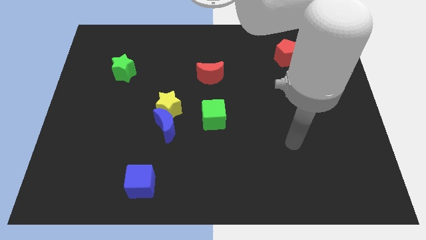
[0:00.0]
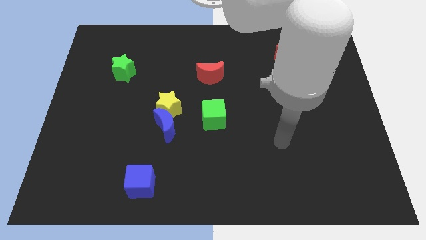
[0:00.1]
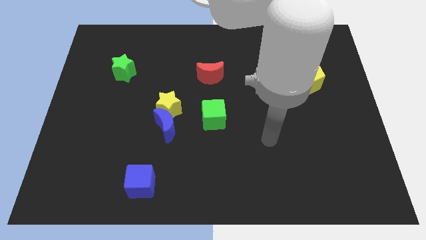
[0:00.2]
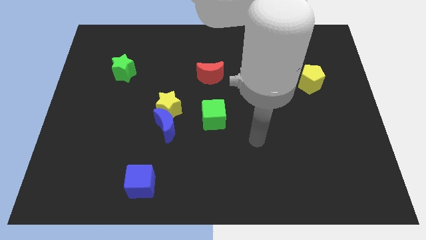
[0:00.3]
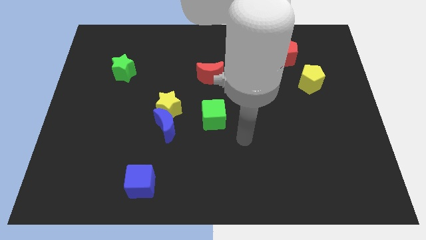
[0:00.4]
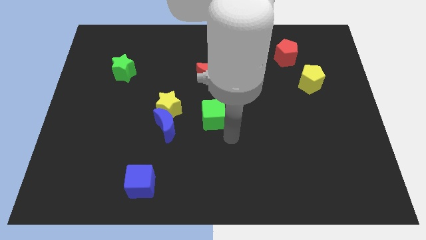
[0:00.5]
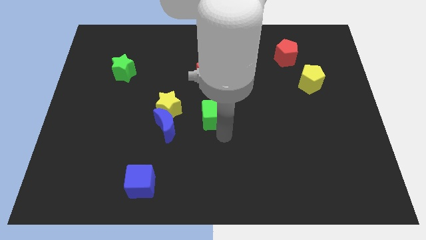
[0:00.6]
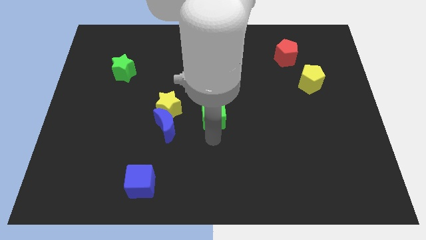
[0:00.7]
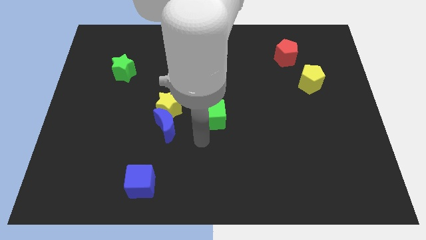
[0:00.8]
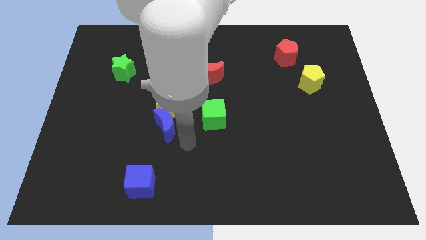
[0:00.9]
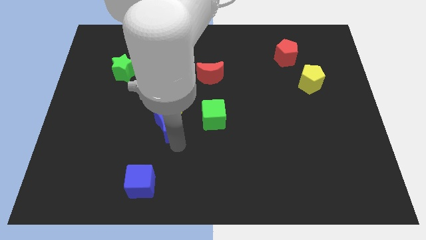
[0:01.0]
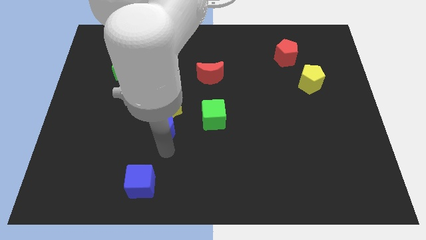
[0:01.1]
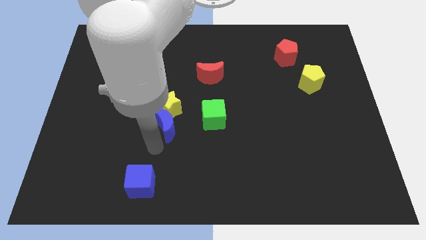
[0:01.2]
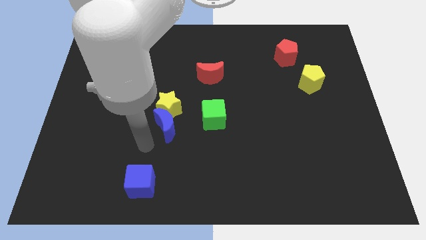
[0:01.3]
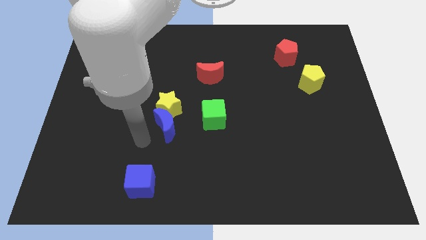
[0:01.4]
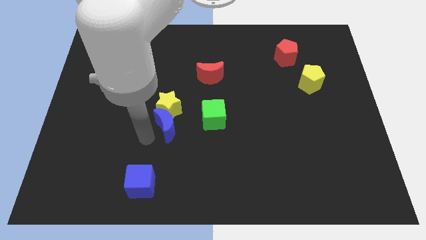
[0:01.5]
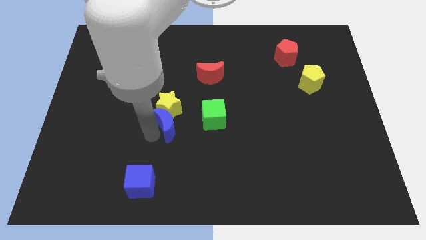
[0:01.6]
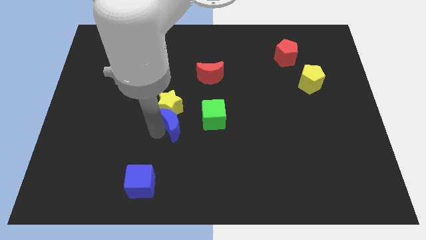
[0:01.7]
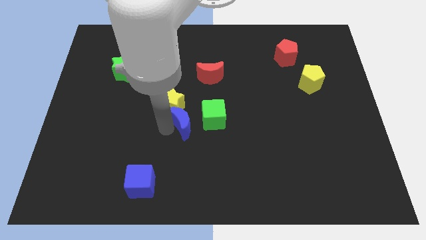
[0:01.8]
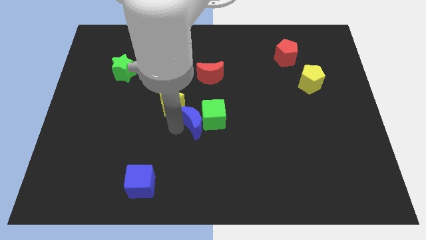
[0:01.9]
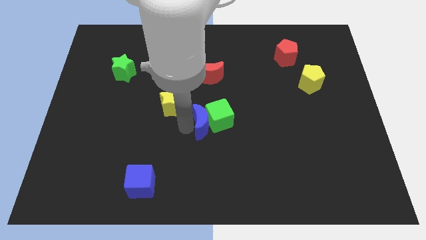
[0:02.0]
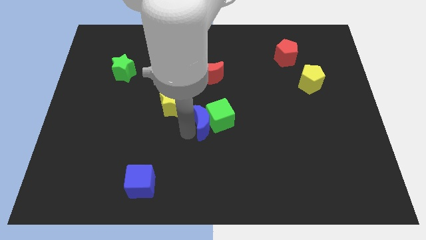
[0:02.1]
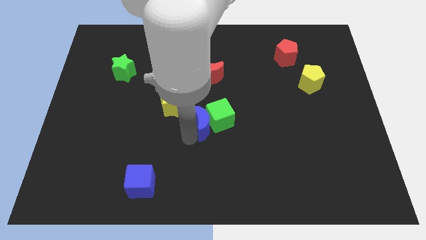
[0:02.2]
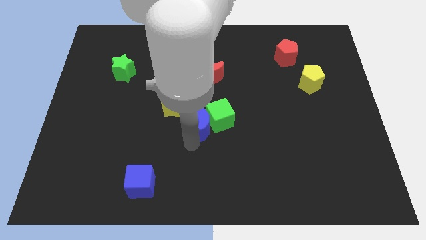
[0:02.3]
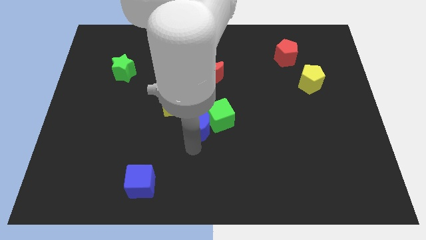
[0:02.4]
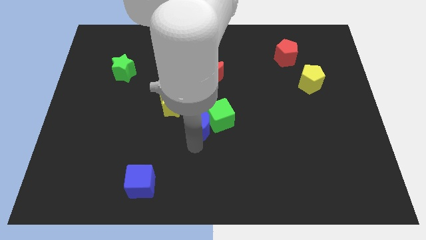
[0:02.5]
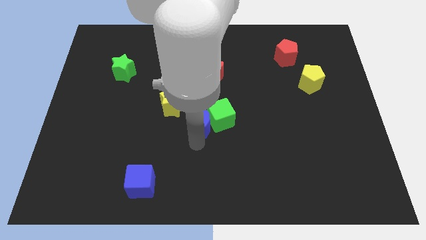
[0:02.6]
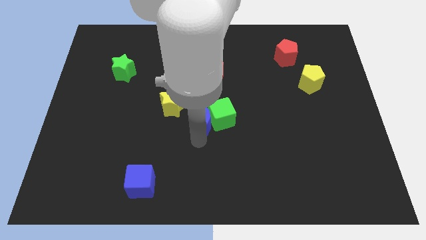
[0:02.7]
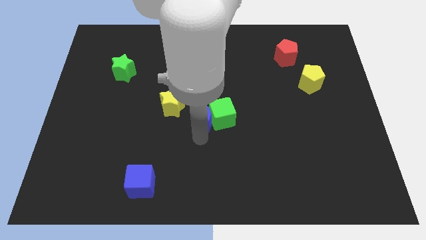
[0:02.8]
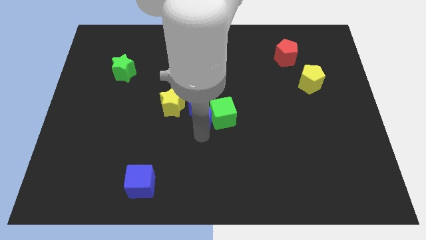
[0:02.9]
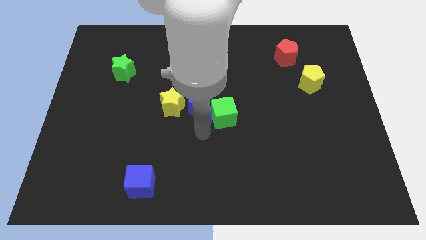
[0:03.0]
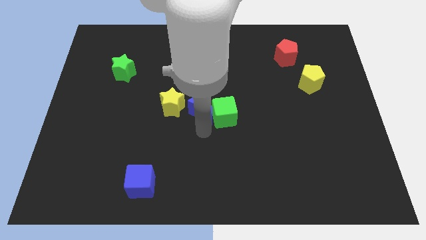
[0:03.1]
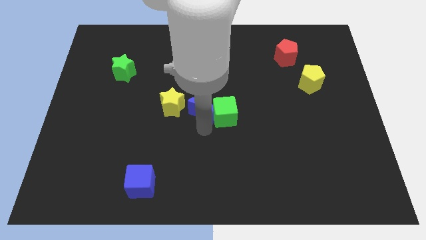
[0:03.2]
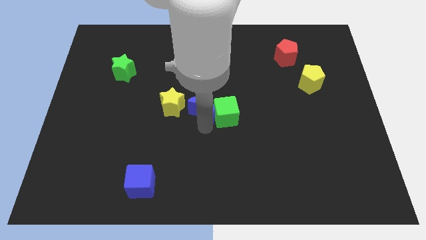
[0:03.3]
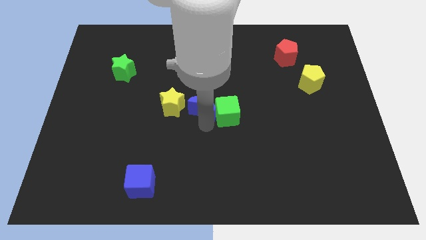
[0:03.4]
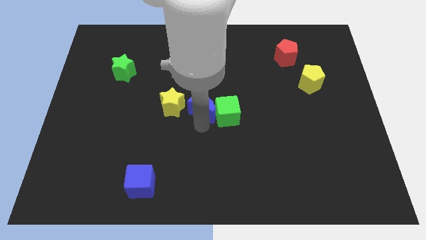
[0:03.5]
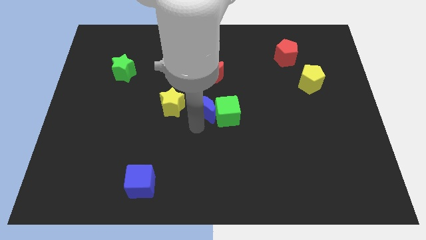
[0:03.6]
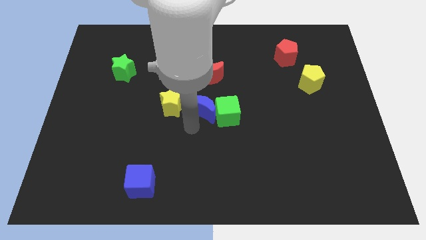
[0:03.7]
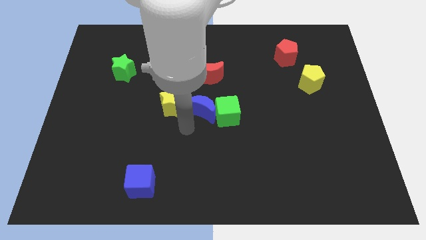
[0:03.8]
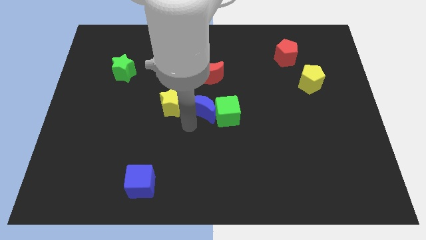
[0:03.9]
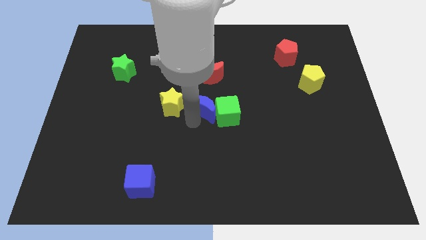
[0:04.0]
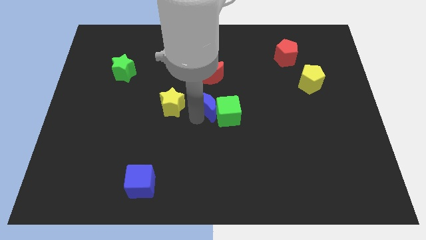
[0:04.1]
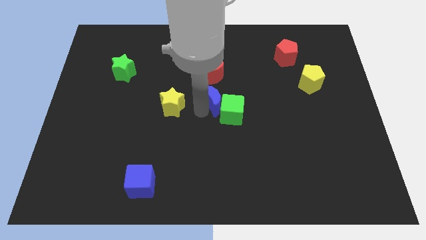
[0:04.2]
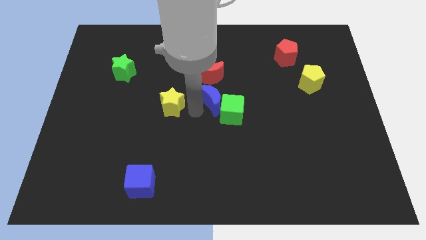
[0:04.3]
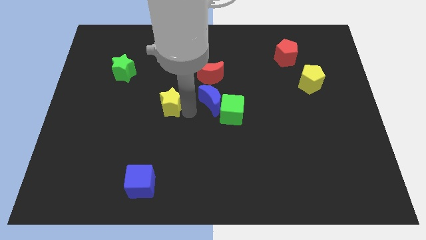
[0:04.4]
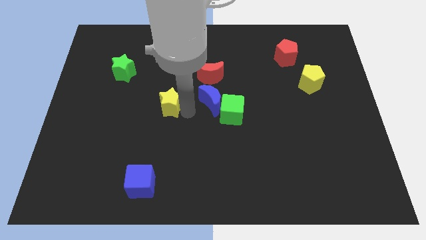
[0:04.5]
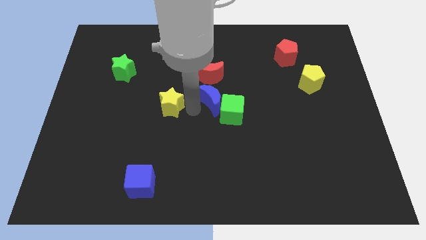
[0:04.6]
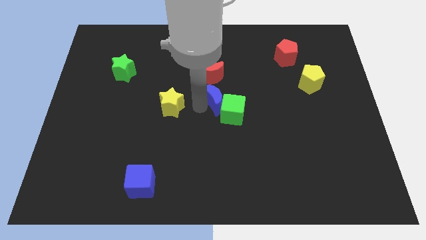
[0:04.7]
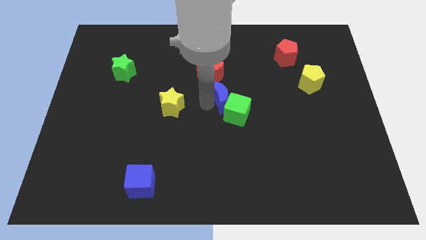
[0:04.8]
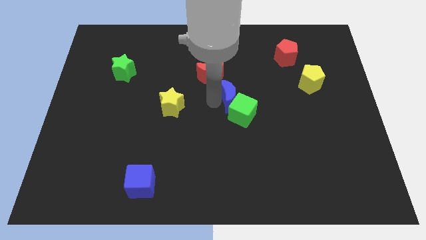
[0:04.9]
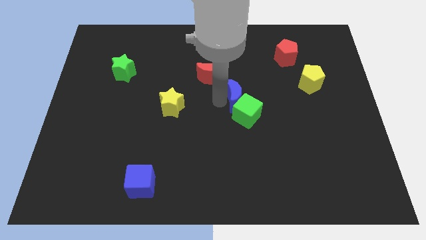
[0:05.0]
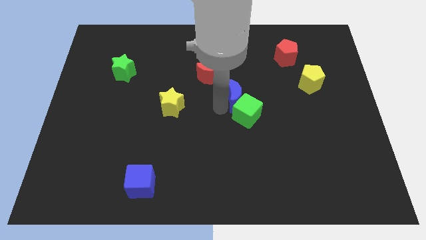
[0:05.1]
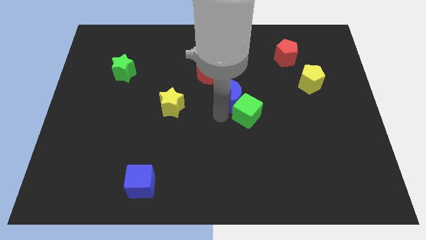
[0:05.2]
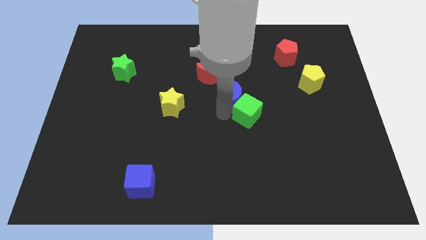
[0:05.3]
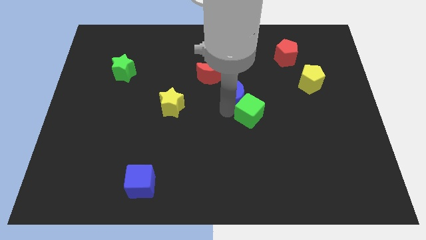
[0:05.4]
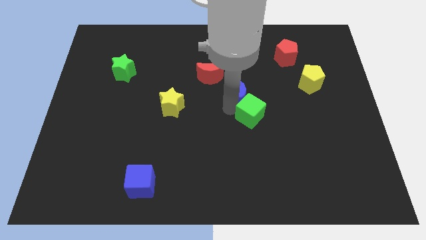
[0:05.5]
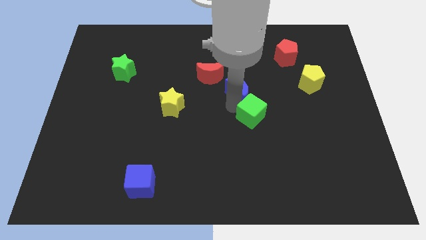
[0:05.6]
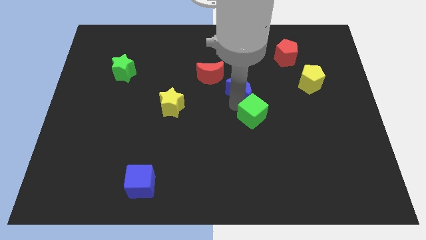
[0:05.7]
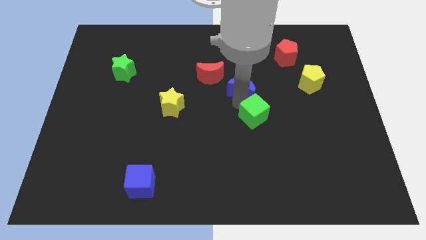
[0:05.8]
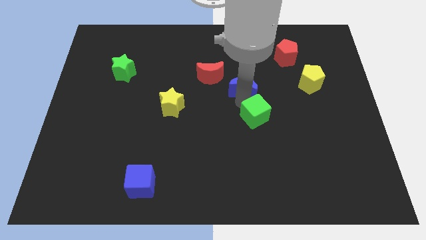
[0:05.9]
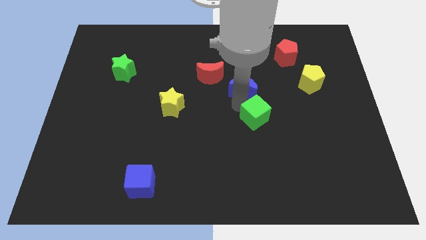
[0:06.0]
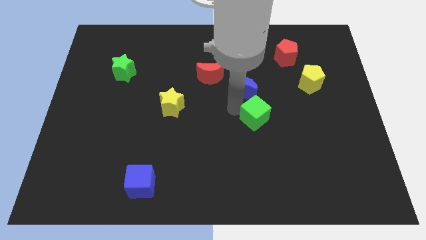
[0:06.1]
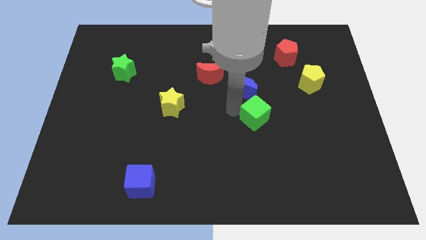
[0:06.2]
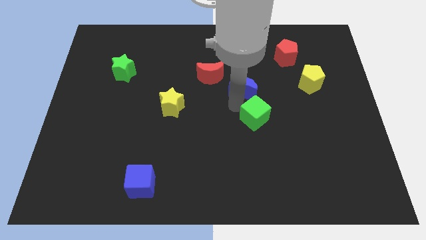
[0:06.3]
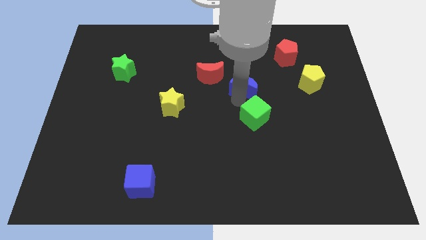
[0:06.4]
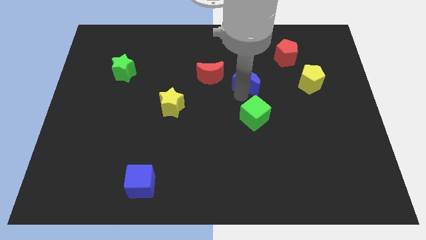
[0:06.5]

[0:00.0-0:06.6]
slide the blue moon upwards and then to the right

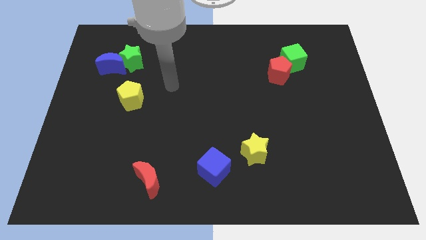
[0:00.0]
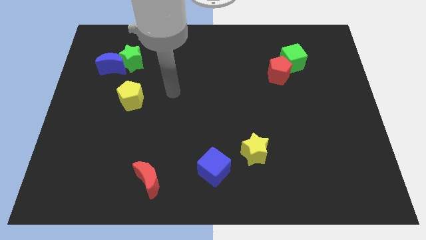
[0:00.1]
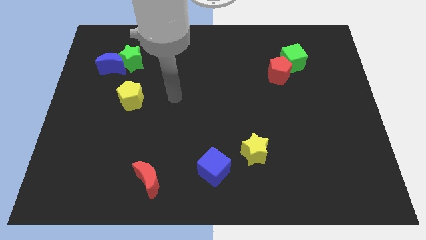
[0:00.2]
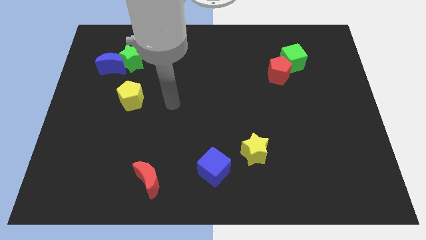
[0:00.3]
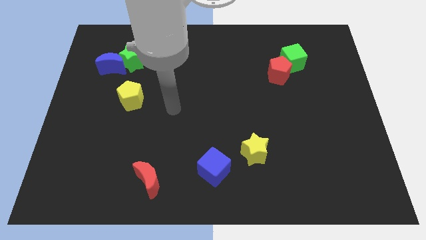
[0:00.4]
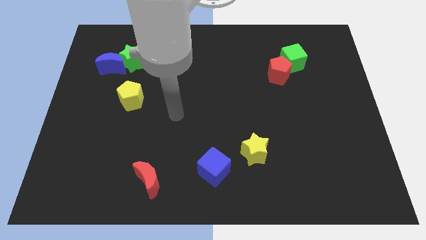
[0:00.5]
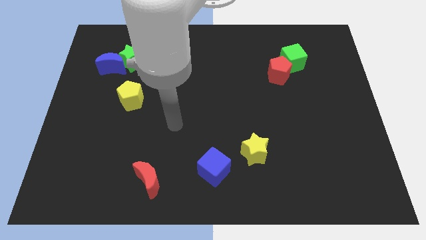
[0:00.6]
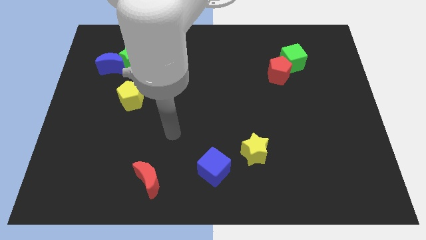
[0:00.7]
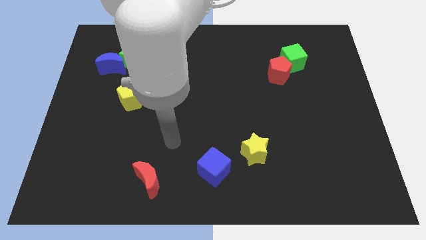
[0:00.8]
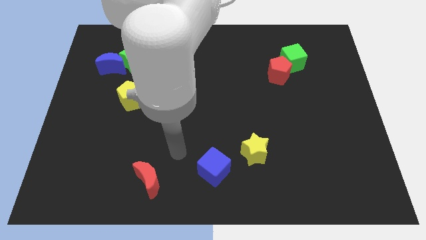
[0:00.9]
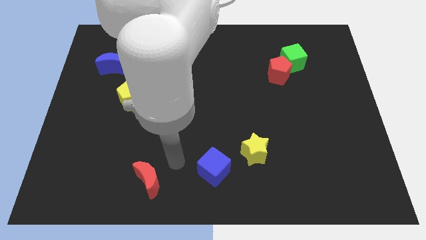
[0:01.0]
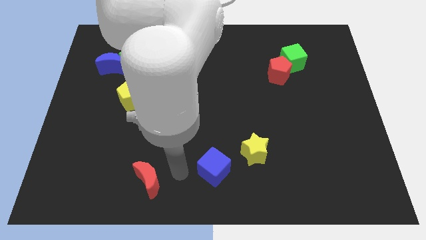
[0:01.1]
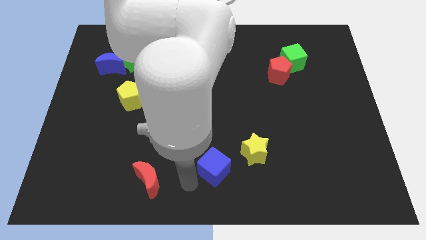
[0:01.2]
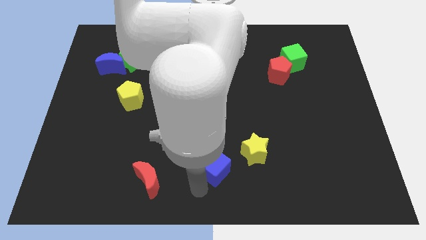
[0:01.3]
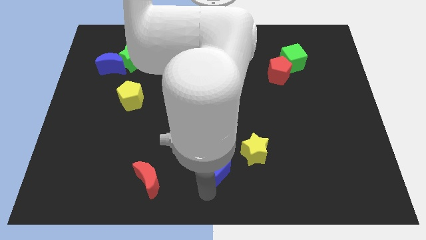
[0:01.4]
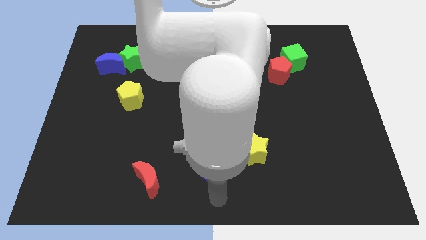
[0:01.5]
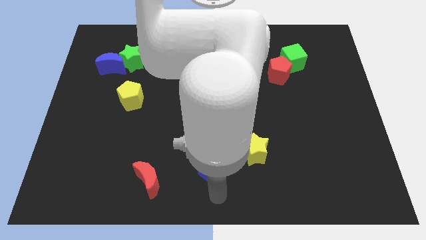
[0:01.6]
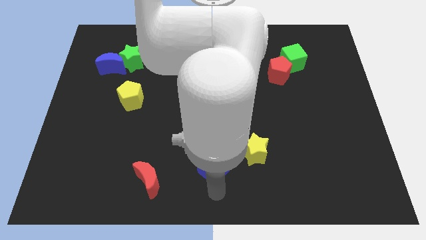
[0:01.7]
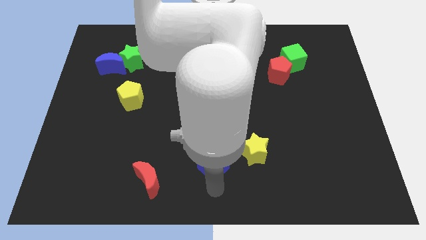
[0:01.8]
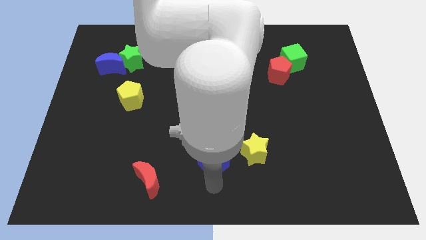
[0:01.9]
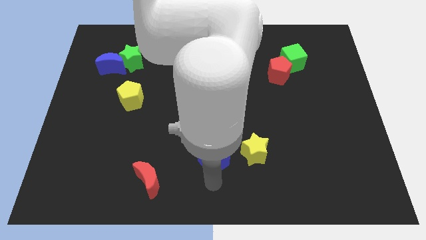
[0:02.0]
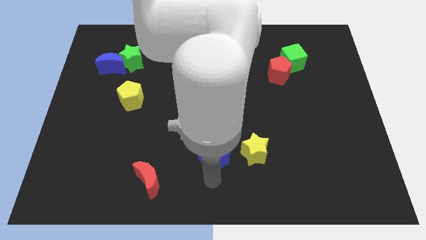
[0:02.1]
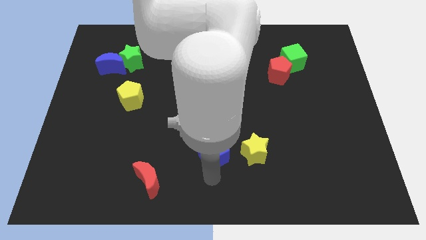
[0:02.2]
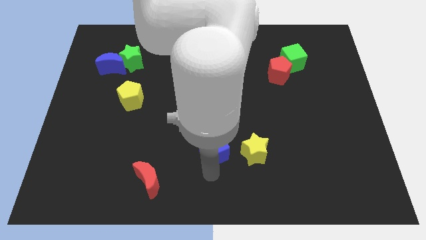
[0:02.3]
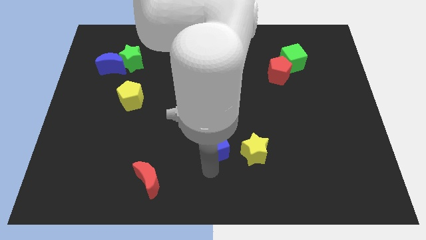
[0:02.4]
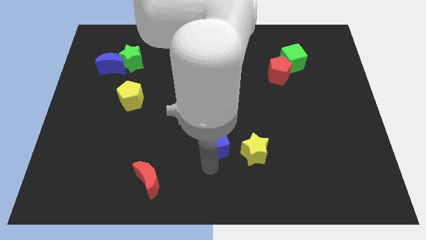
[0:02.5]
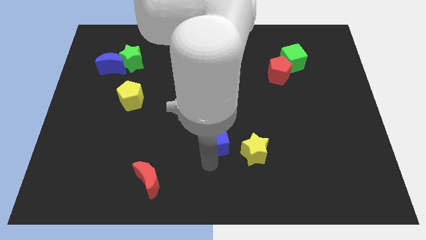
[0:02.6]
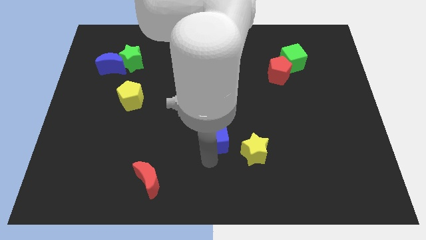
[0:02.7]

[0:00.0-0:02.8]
slide the blue cube a little bit up
